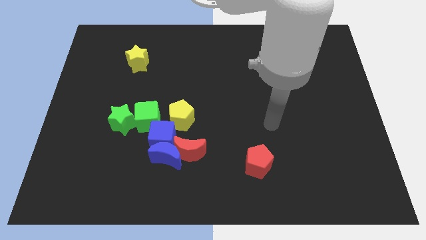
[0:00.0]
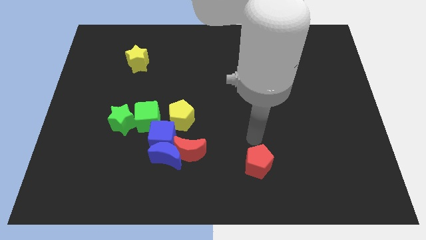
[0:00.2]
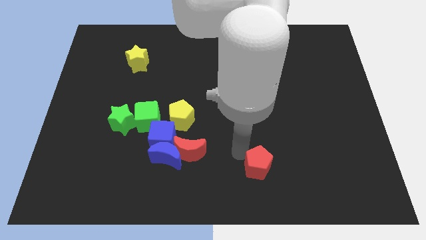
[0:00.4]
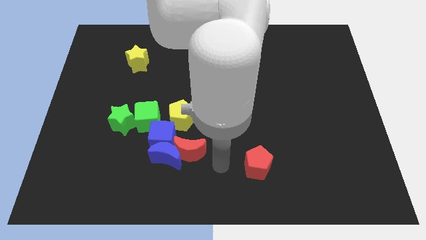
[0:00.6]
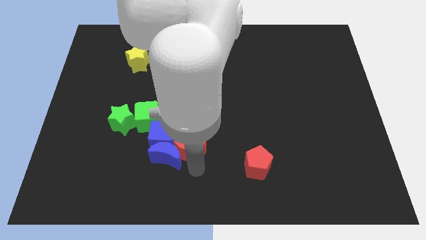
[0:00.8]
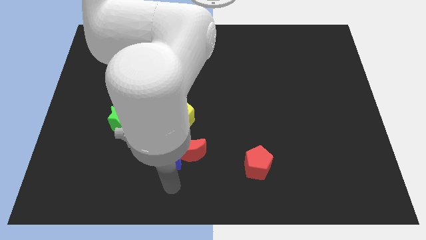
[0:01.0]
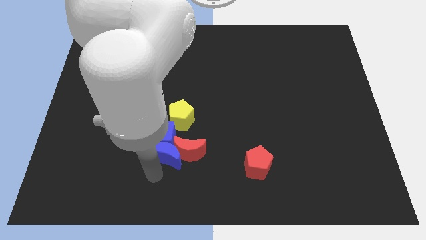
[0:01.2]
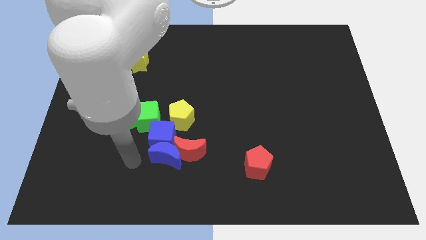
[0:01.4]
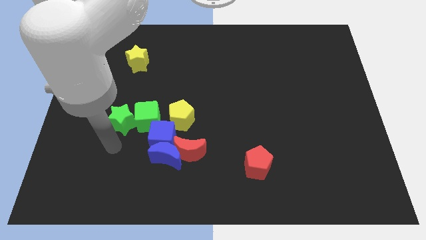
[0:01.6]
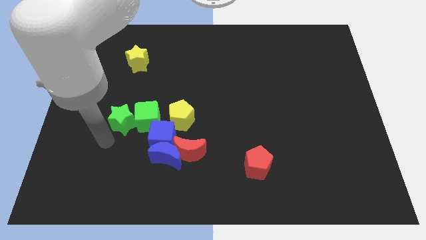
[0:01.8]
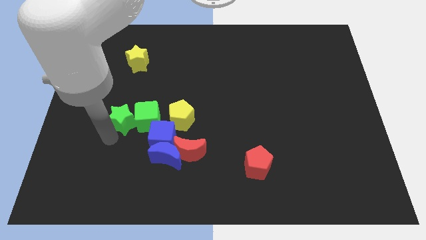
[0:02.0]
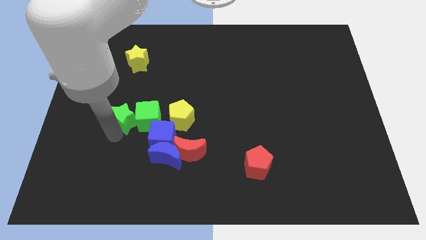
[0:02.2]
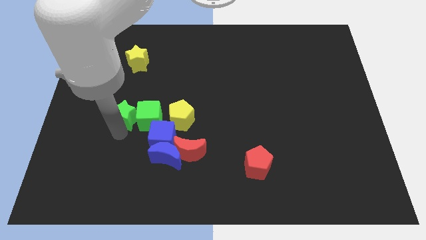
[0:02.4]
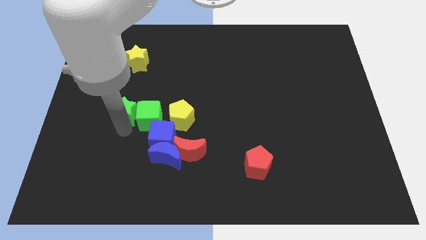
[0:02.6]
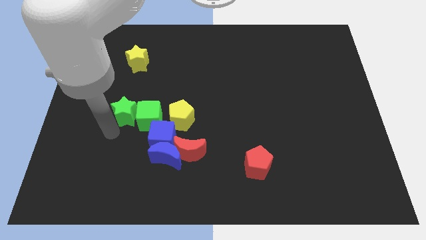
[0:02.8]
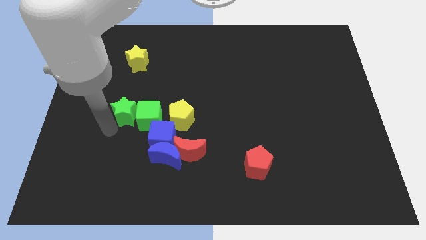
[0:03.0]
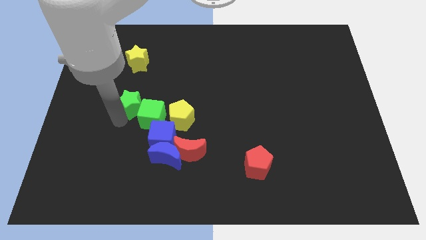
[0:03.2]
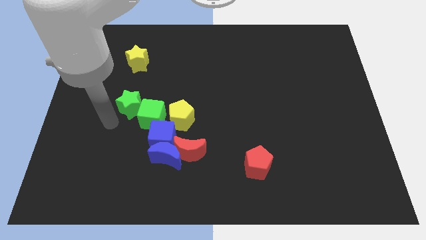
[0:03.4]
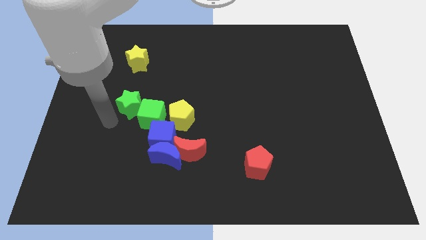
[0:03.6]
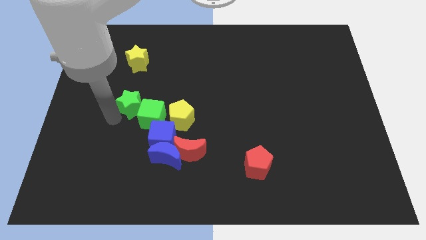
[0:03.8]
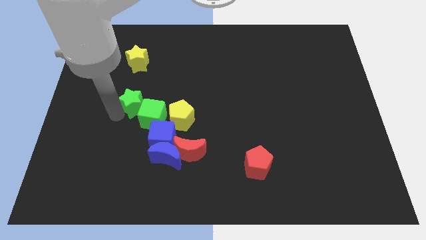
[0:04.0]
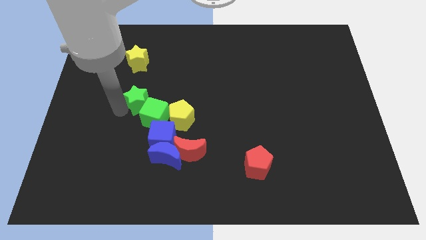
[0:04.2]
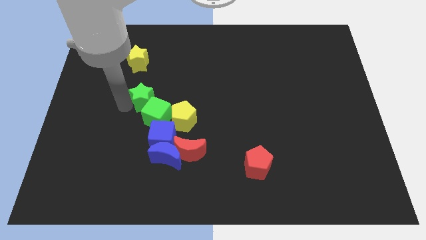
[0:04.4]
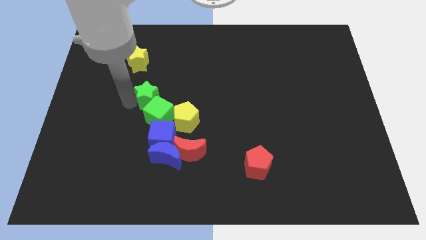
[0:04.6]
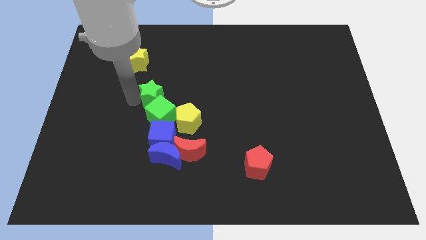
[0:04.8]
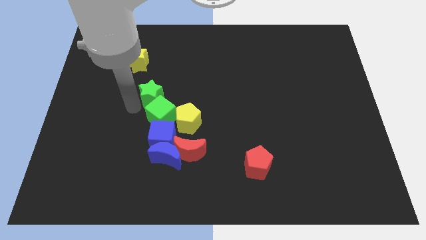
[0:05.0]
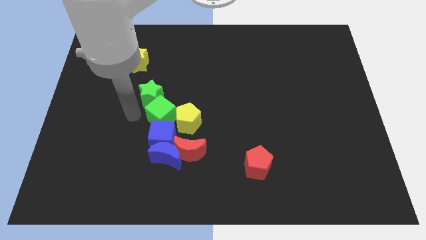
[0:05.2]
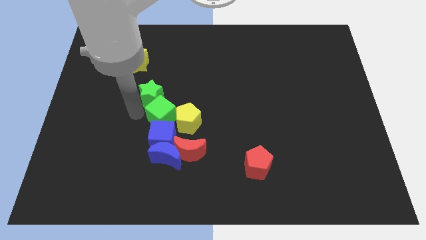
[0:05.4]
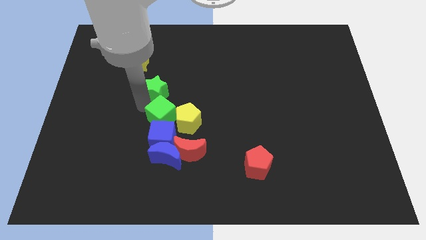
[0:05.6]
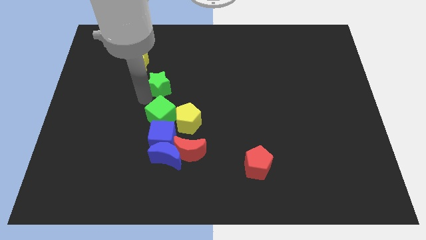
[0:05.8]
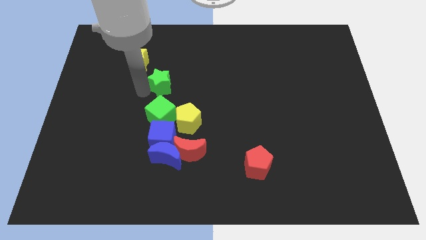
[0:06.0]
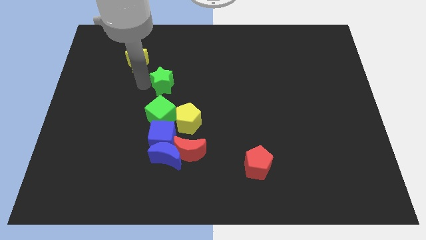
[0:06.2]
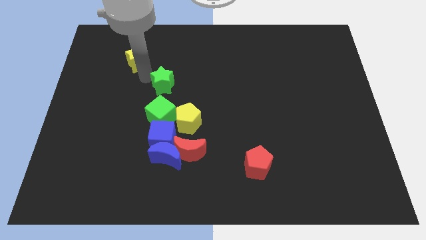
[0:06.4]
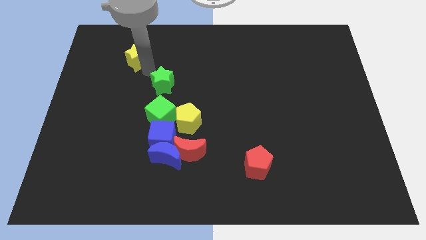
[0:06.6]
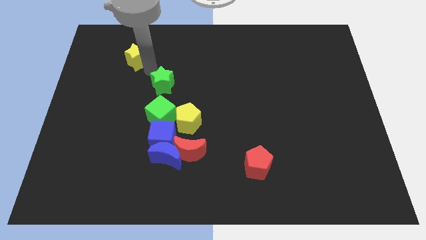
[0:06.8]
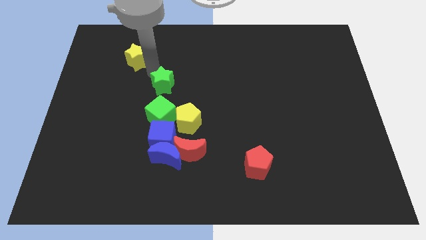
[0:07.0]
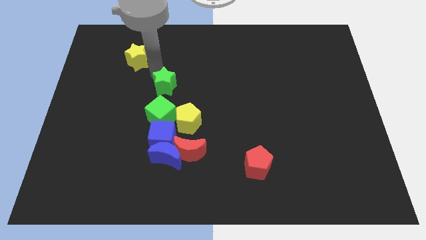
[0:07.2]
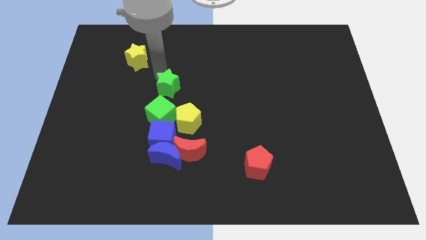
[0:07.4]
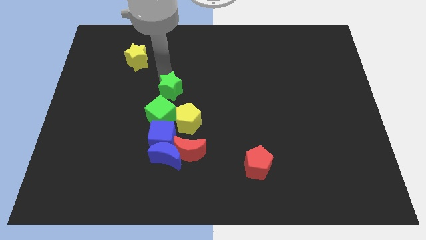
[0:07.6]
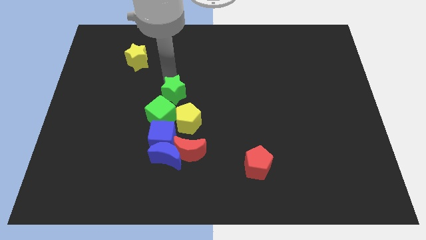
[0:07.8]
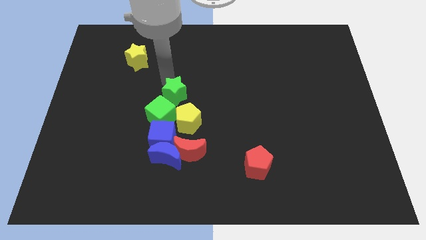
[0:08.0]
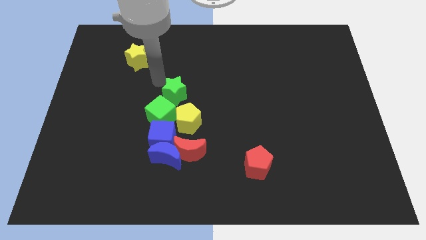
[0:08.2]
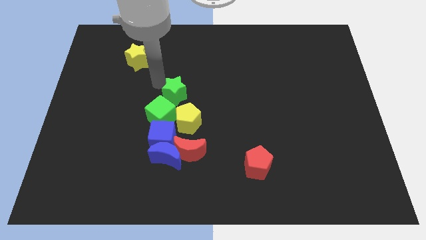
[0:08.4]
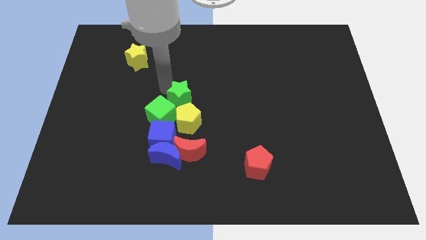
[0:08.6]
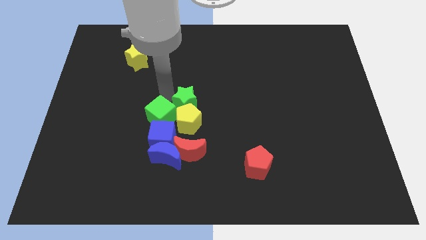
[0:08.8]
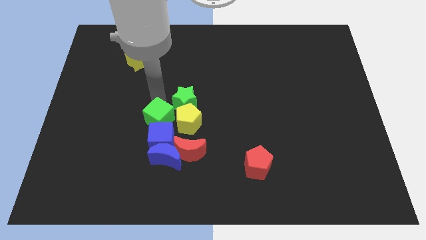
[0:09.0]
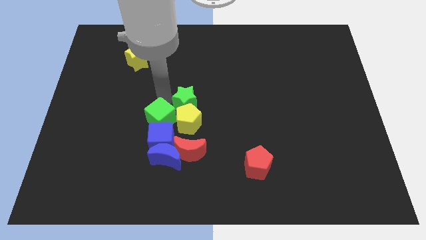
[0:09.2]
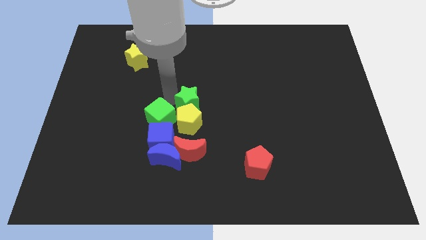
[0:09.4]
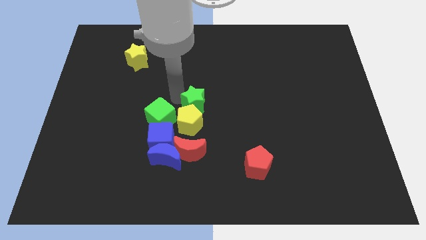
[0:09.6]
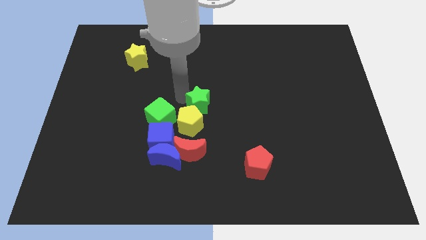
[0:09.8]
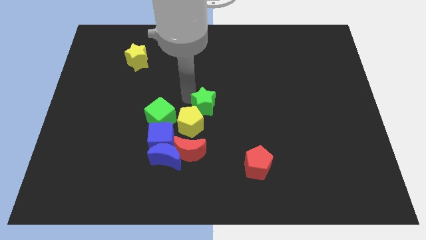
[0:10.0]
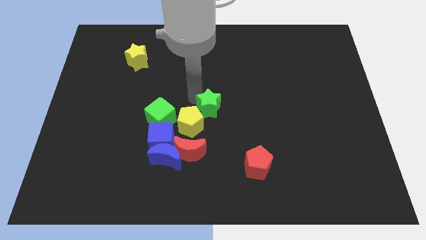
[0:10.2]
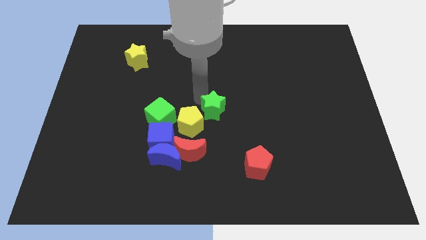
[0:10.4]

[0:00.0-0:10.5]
push the green star to the right

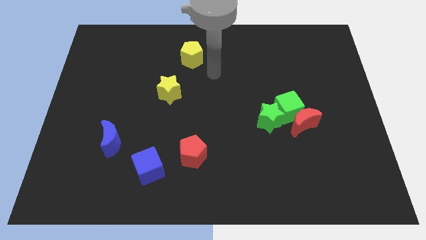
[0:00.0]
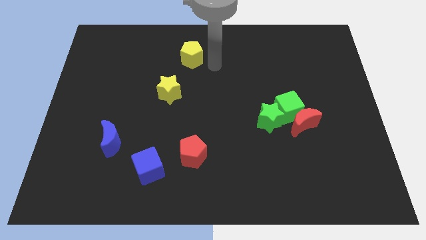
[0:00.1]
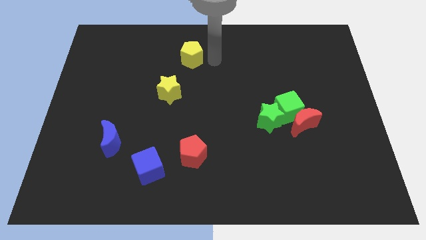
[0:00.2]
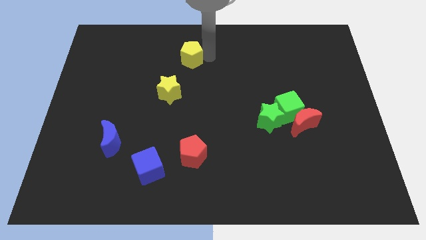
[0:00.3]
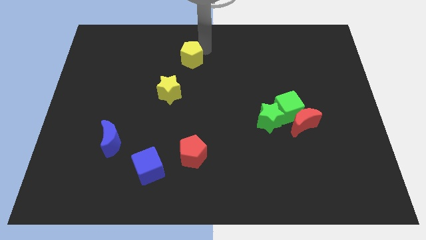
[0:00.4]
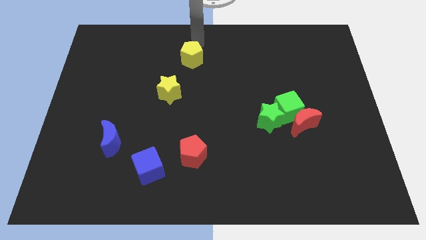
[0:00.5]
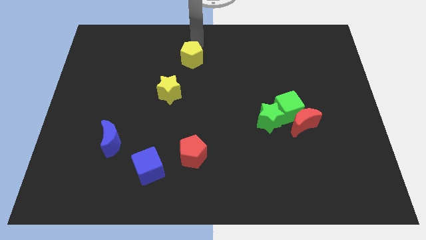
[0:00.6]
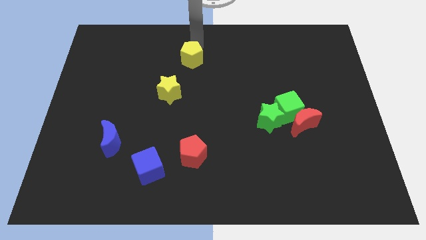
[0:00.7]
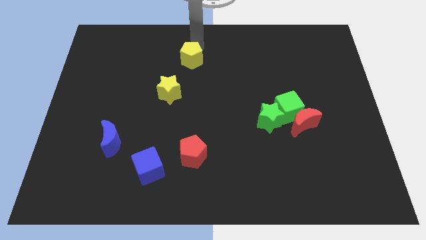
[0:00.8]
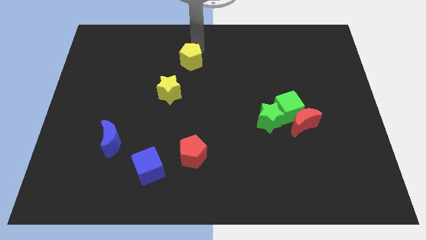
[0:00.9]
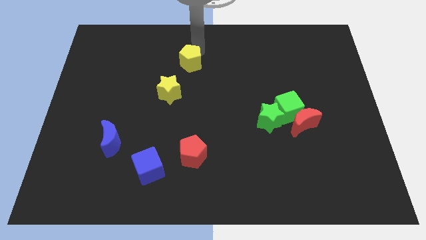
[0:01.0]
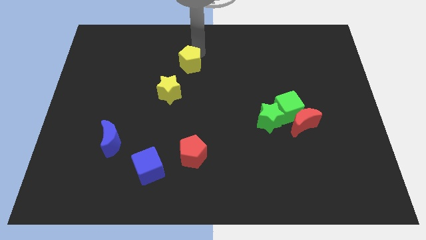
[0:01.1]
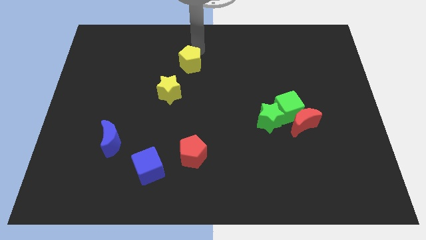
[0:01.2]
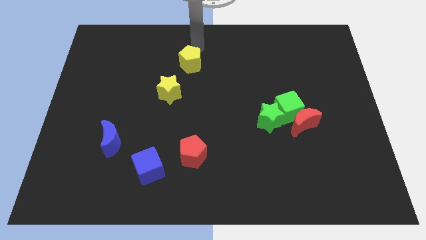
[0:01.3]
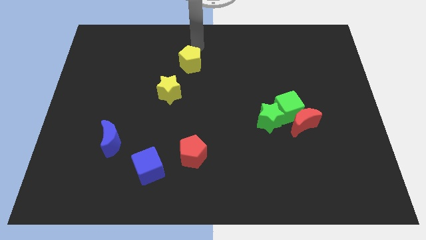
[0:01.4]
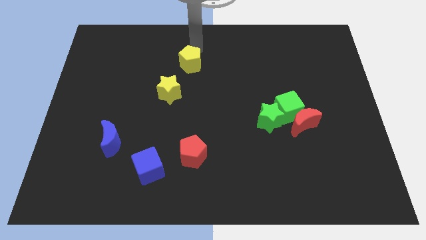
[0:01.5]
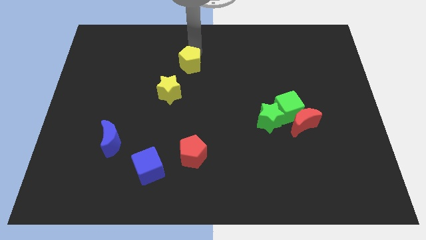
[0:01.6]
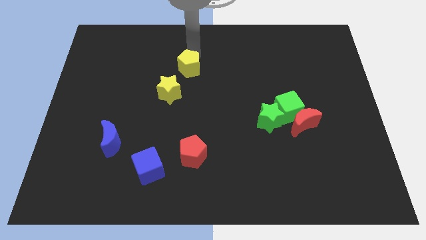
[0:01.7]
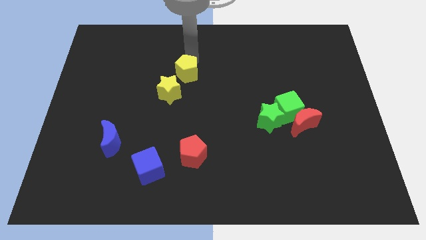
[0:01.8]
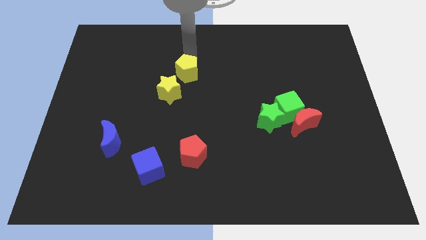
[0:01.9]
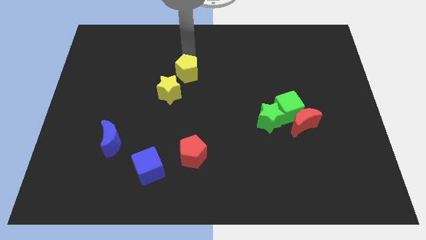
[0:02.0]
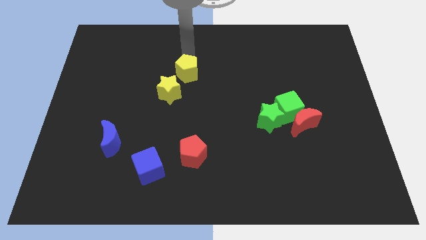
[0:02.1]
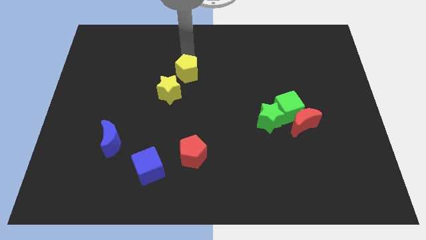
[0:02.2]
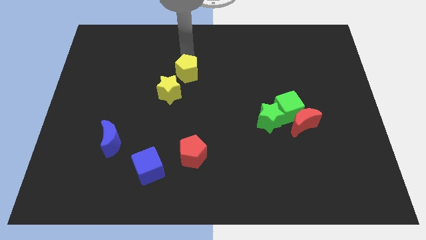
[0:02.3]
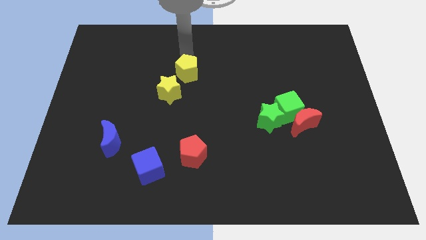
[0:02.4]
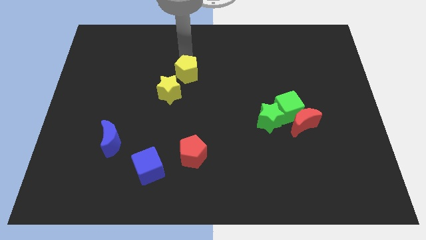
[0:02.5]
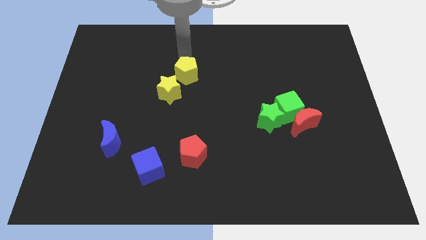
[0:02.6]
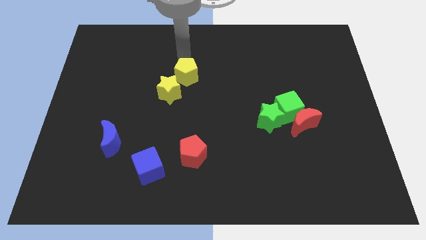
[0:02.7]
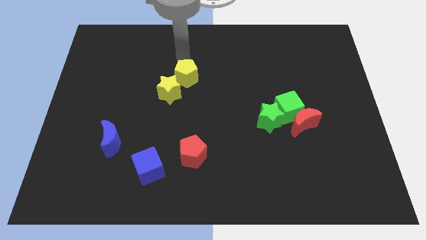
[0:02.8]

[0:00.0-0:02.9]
slightly move the yellow pentagon down
